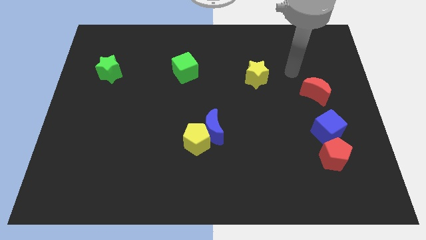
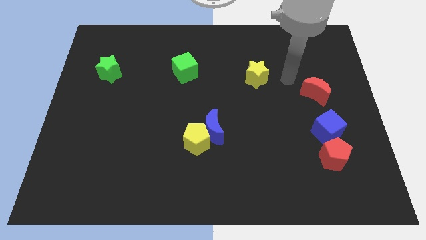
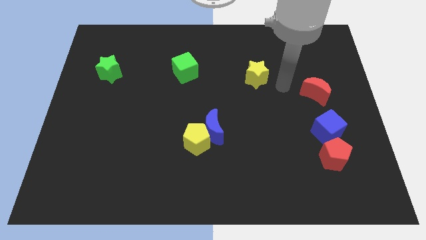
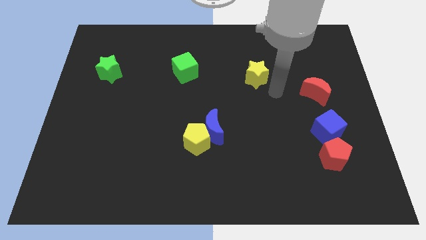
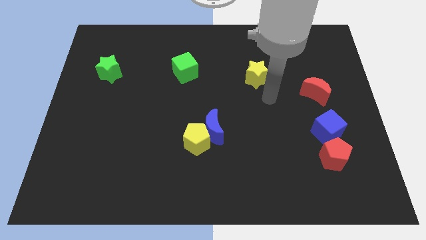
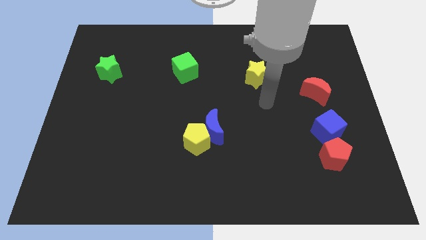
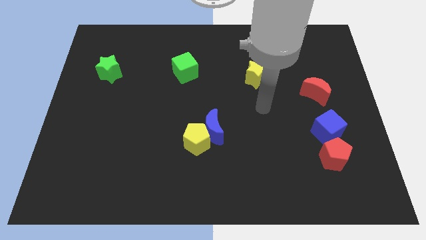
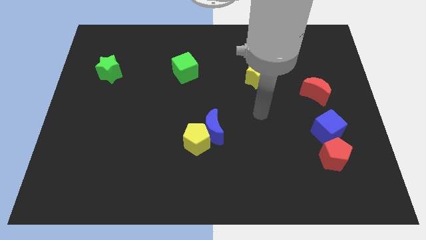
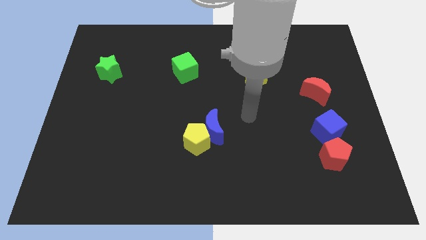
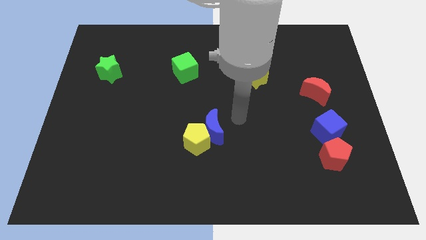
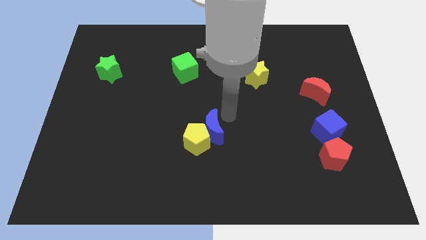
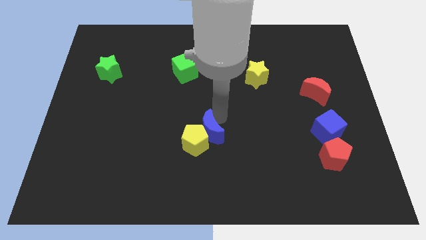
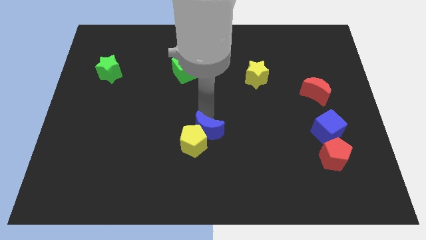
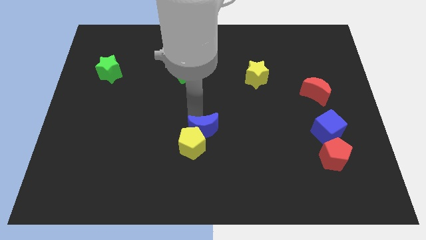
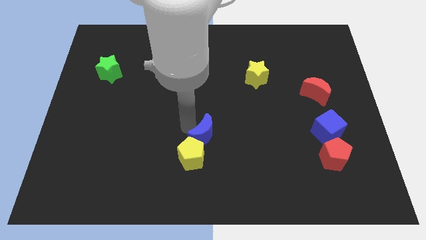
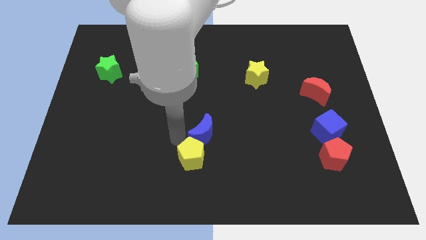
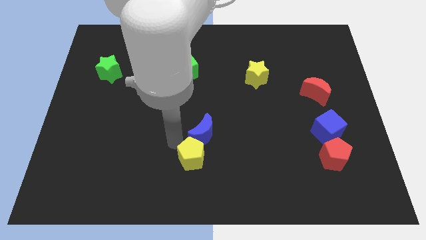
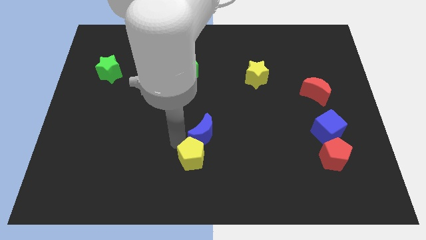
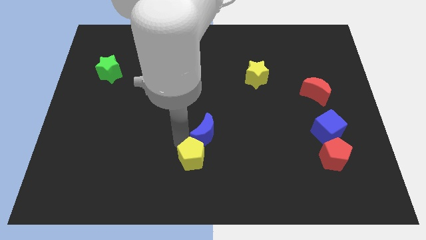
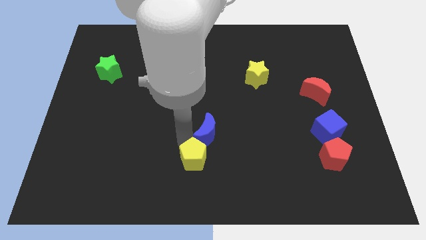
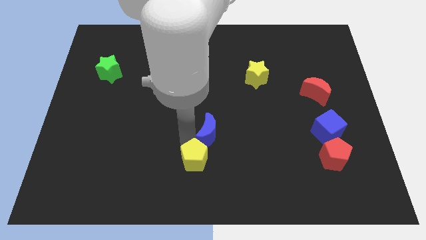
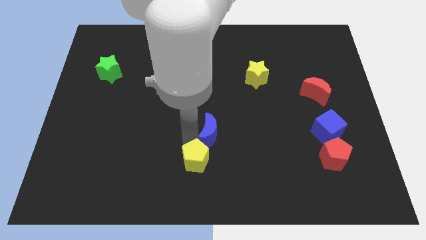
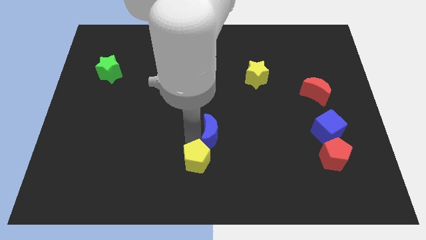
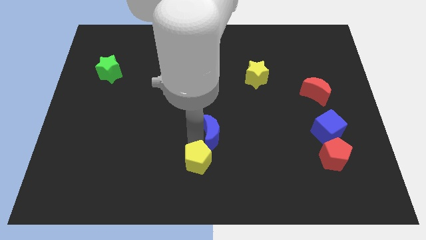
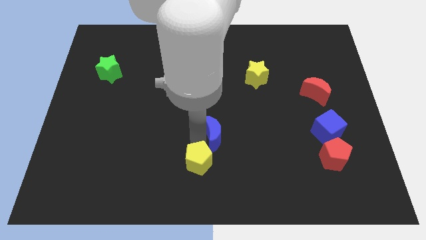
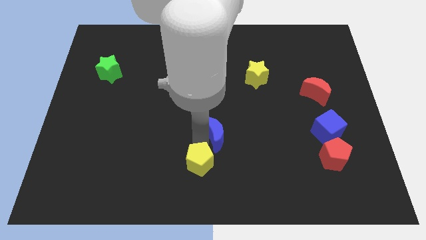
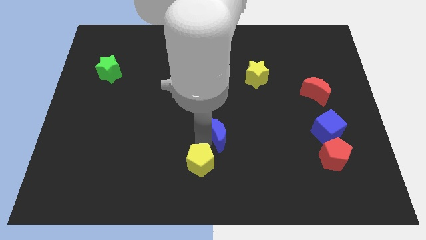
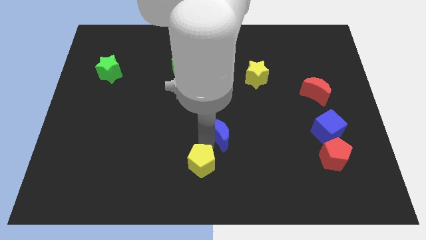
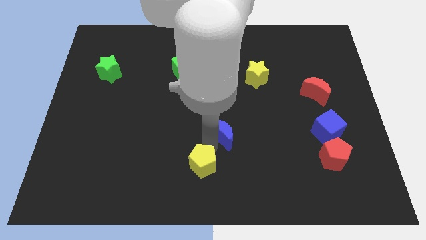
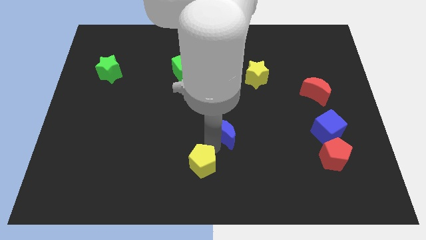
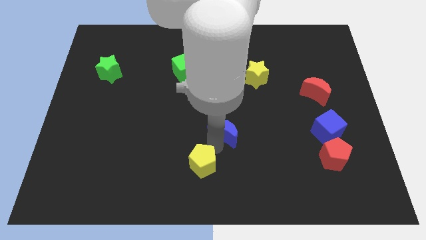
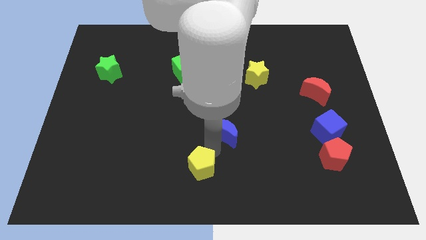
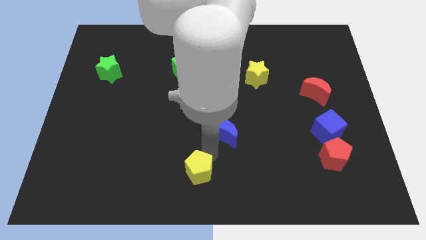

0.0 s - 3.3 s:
separate the blue moon from the yellow pentagon

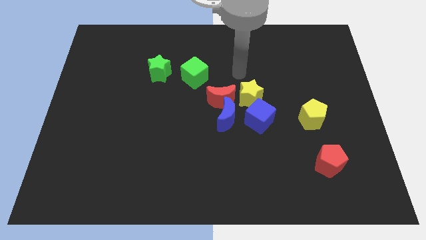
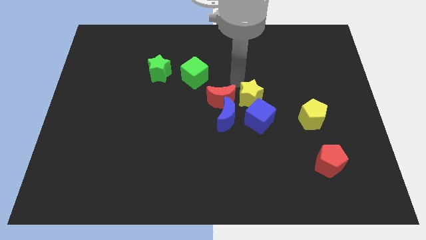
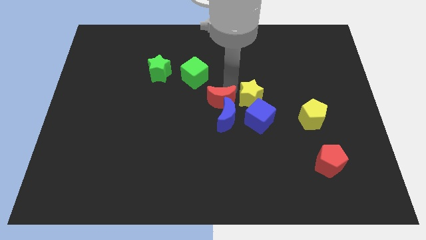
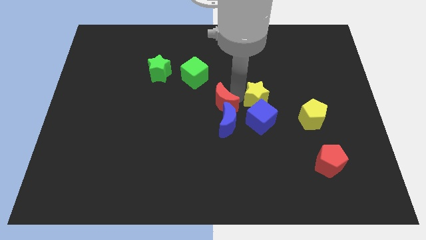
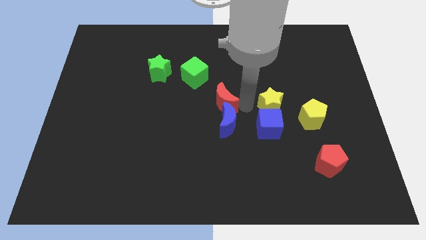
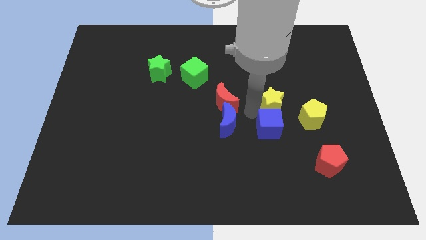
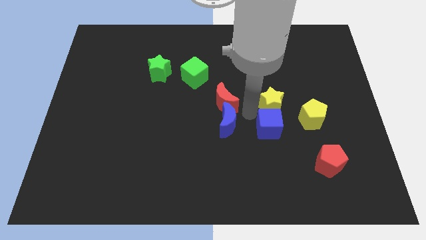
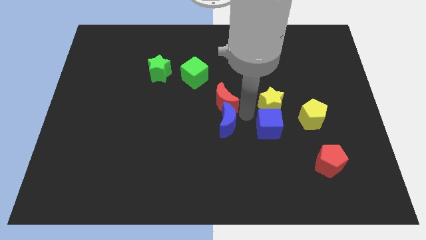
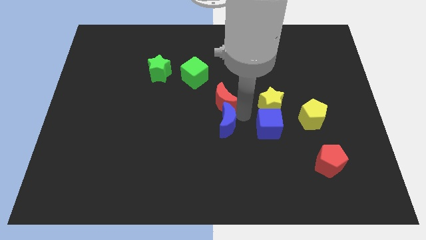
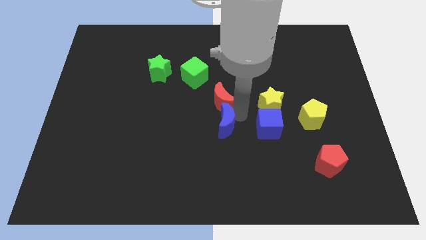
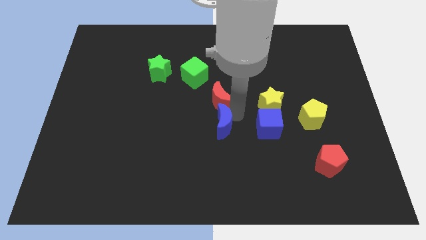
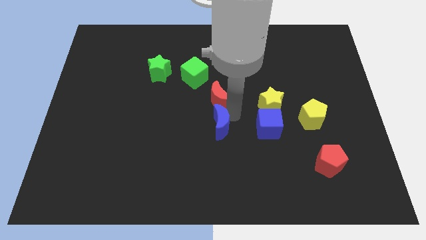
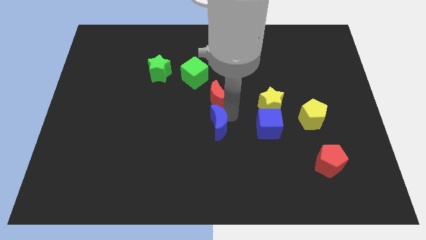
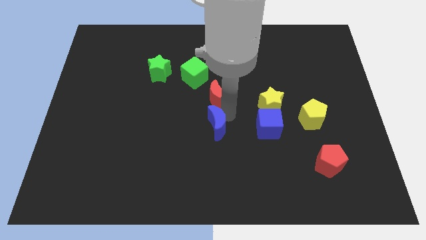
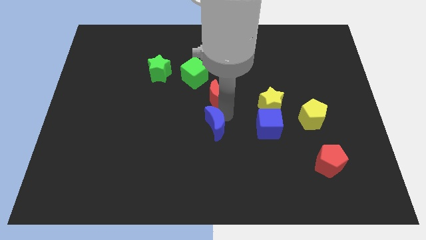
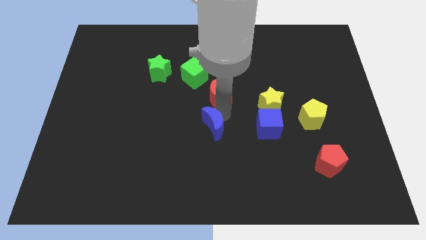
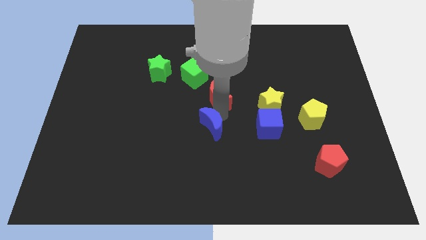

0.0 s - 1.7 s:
pull the blue moon apart from the red moon, blue cube, and yellow star

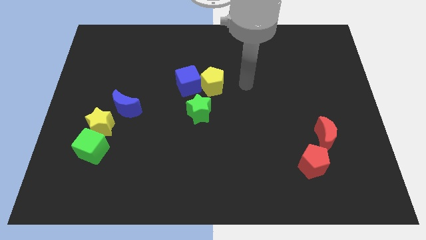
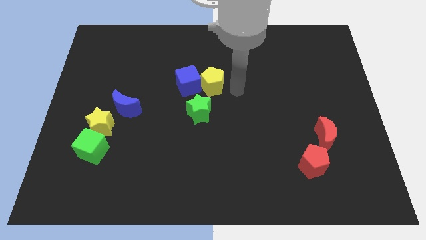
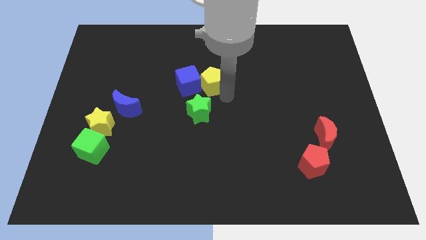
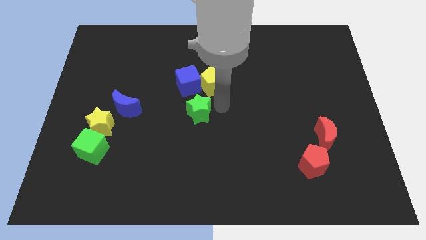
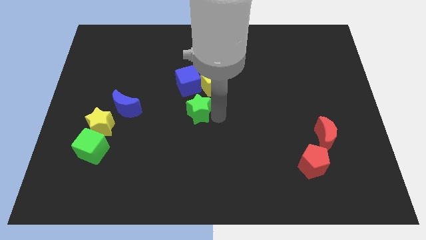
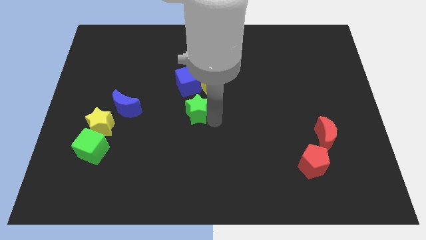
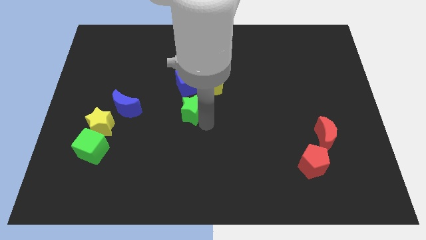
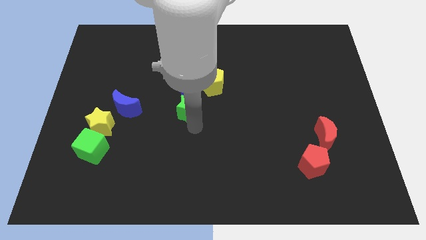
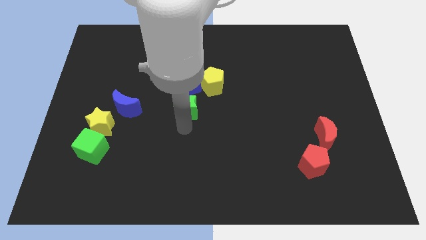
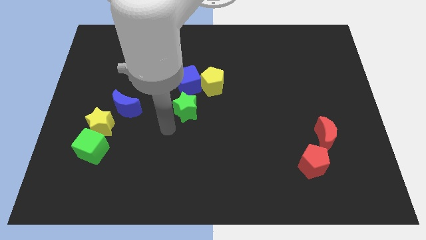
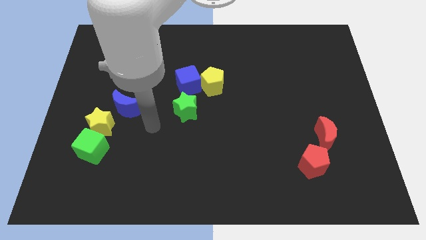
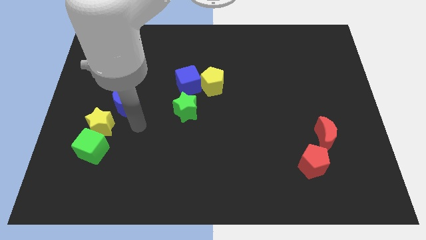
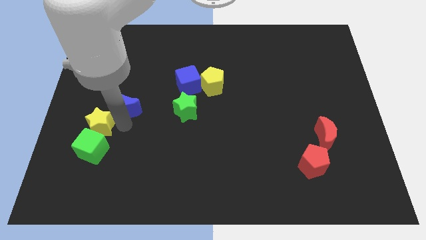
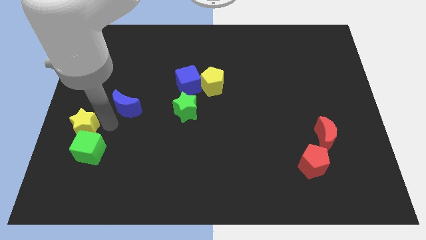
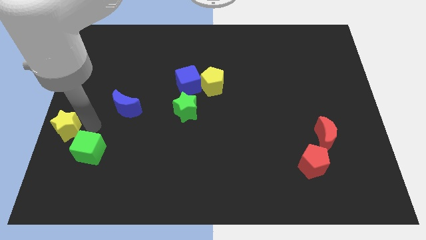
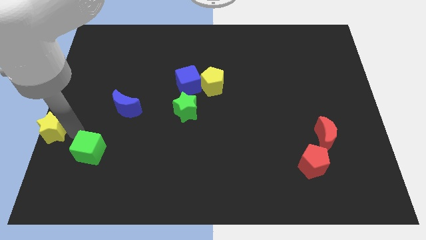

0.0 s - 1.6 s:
separate the green cube from the yellow star

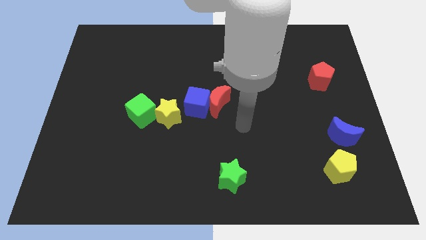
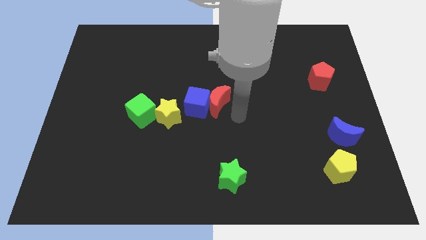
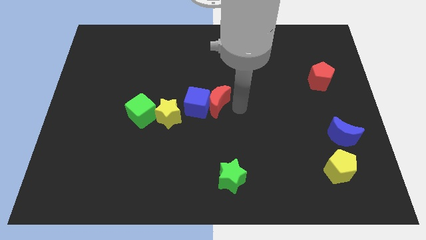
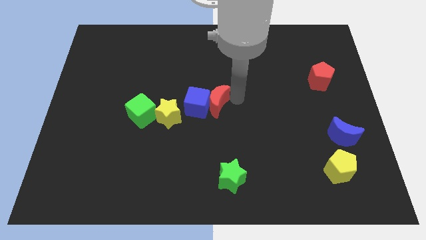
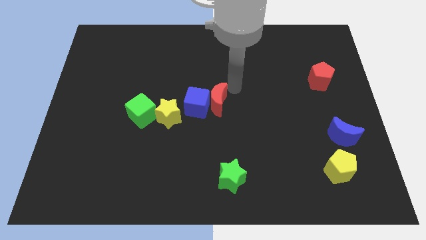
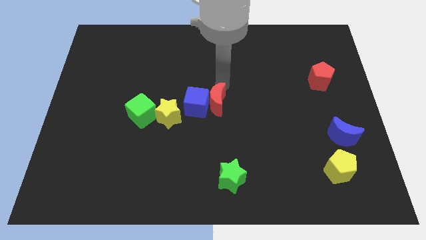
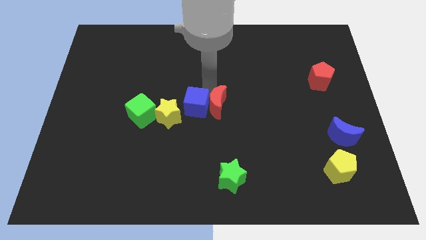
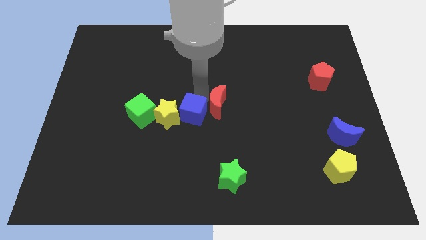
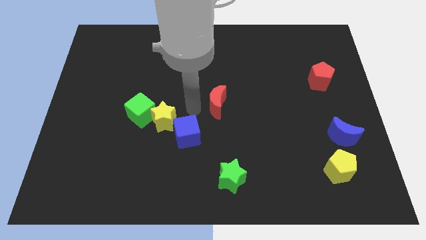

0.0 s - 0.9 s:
pull the red moon apart from the blue cube

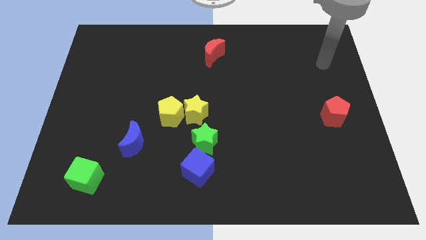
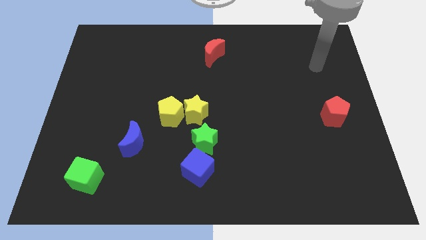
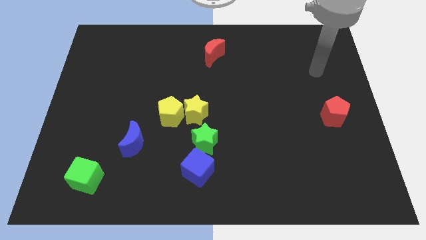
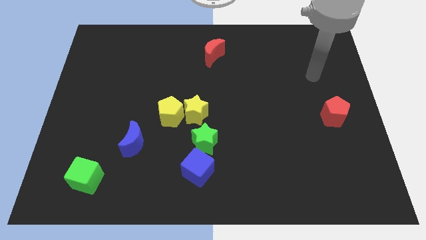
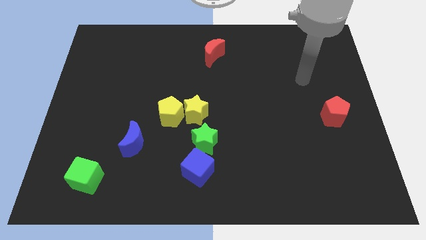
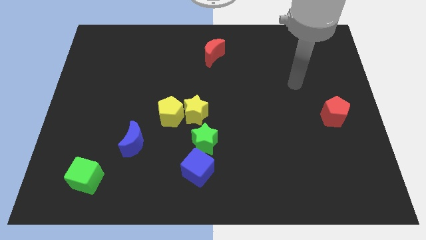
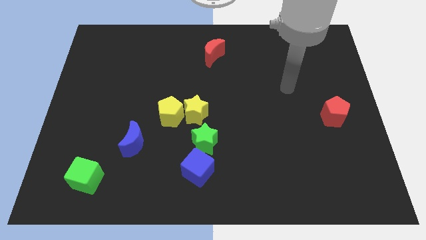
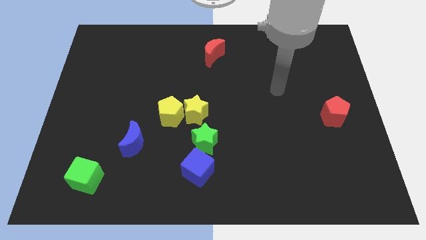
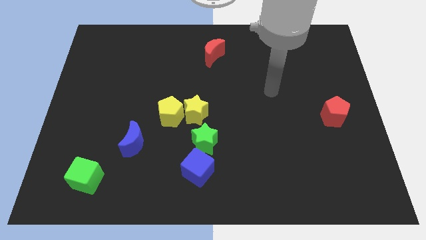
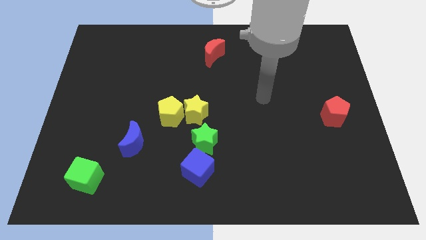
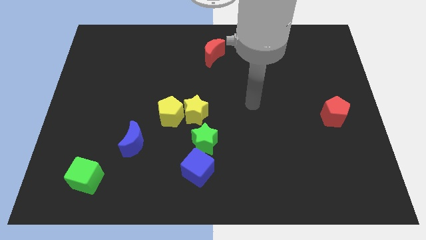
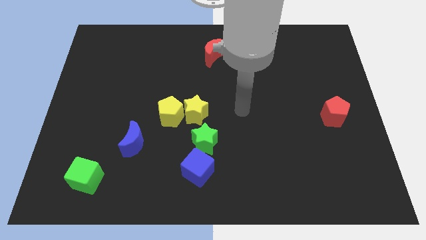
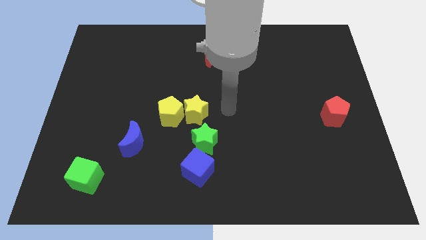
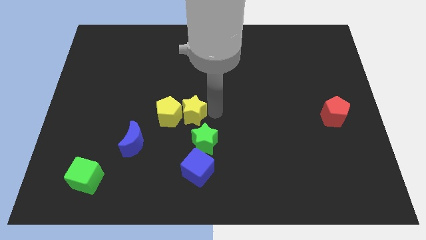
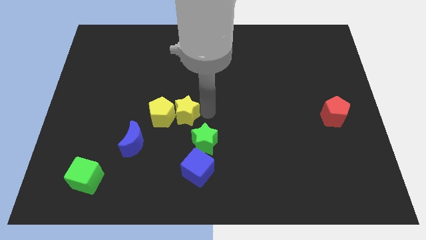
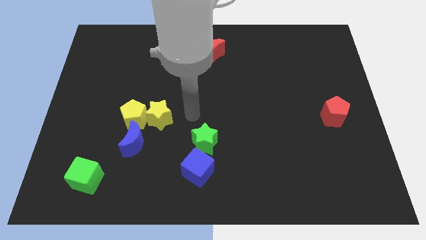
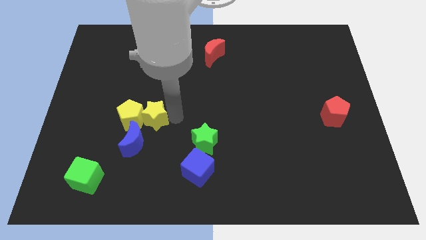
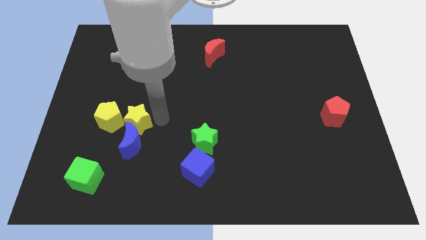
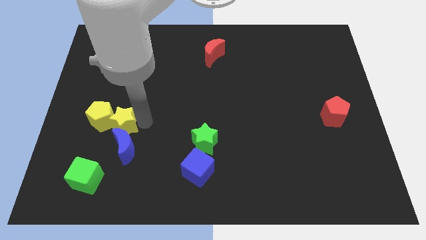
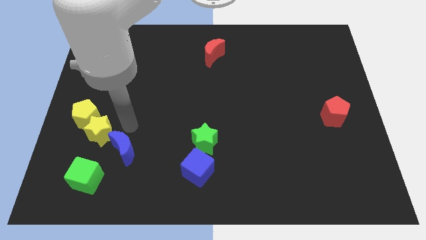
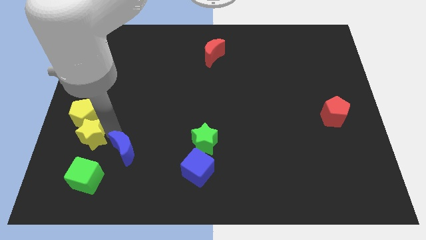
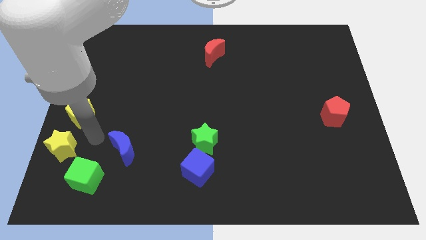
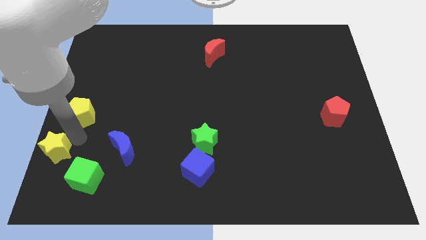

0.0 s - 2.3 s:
pull the yellow pentagon apart from the yellow star
